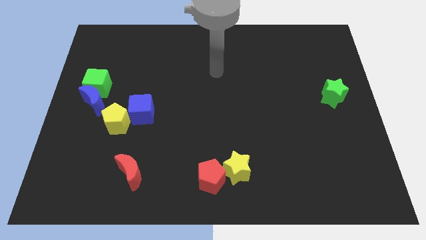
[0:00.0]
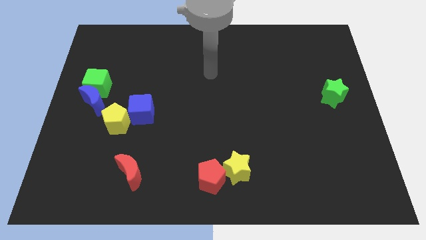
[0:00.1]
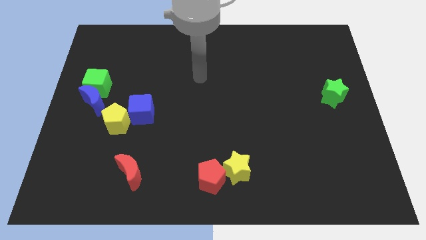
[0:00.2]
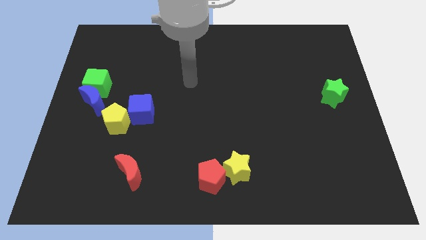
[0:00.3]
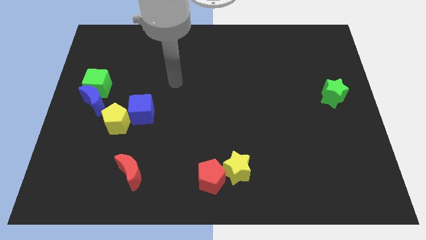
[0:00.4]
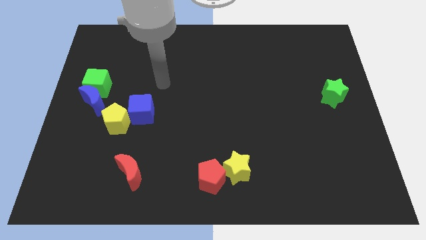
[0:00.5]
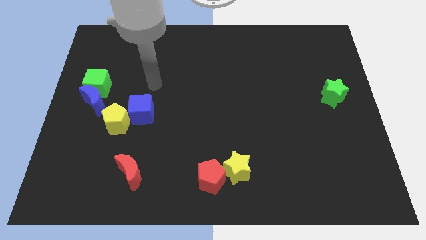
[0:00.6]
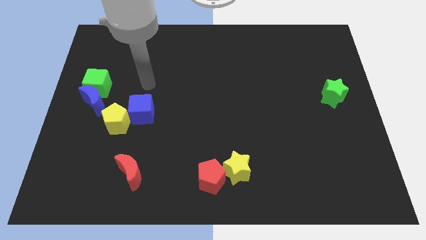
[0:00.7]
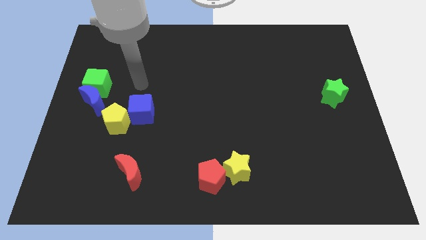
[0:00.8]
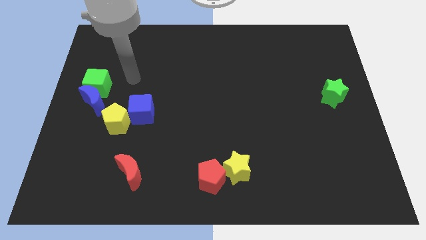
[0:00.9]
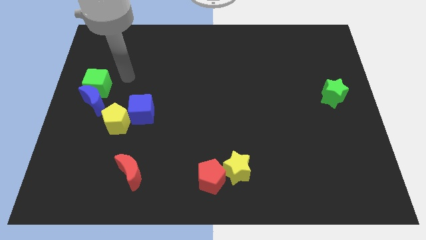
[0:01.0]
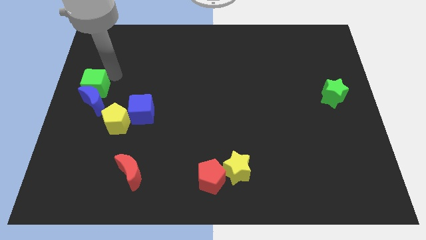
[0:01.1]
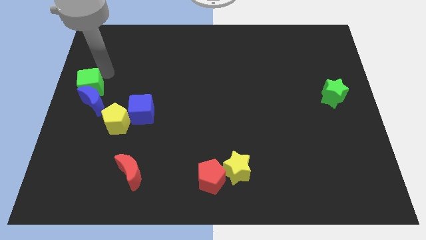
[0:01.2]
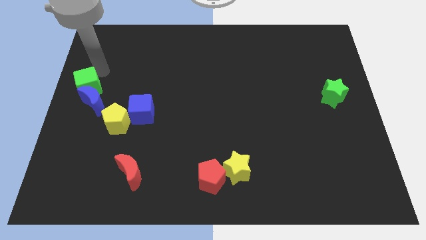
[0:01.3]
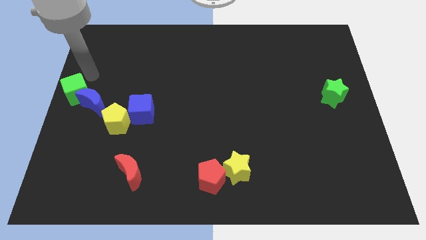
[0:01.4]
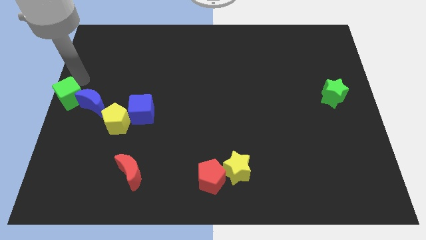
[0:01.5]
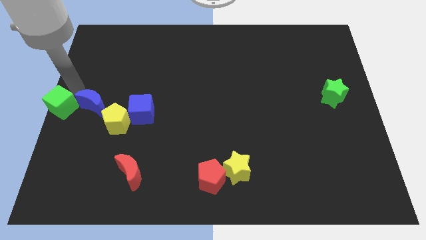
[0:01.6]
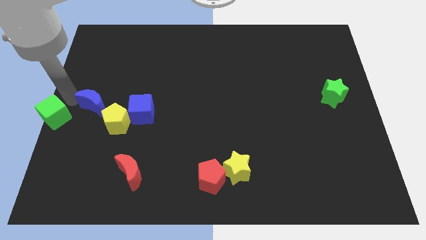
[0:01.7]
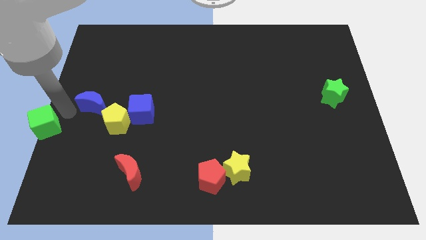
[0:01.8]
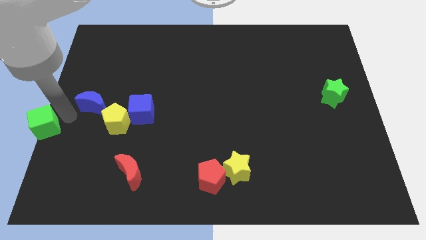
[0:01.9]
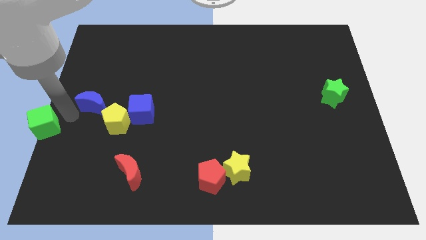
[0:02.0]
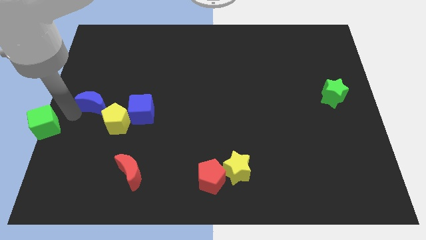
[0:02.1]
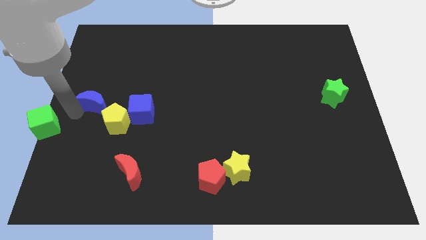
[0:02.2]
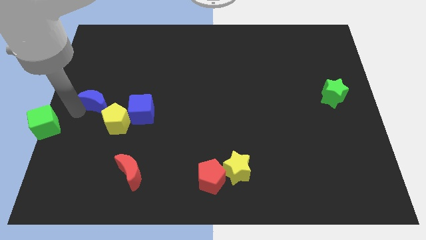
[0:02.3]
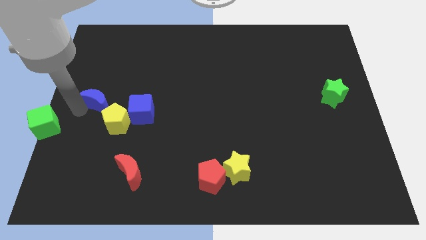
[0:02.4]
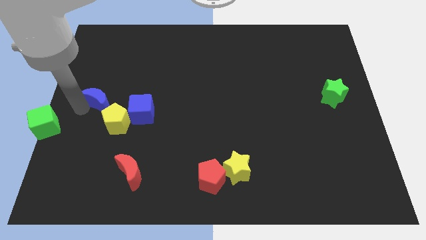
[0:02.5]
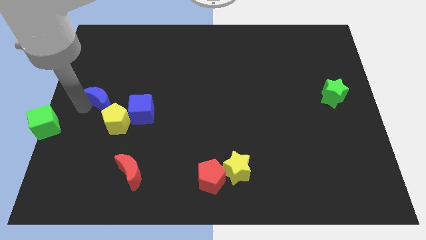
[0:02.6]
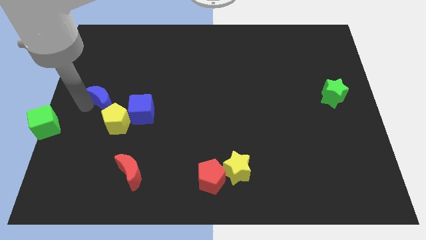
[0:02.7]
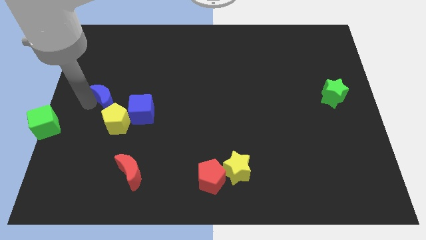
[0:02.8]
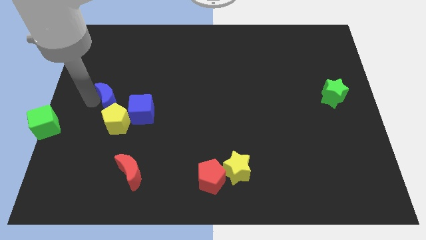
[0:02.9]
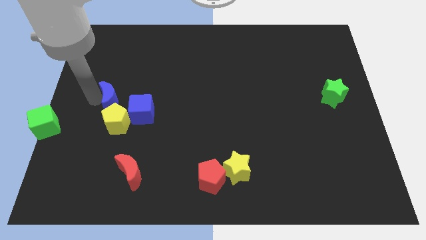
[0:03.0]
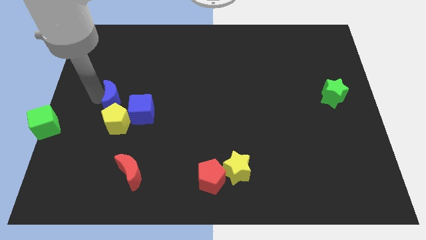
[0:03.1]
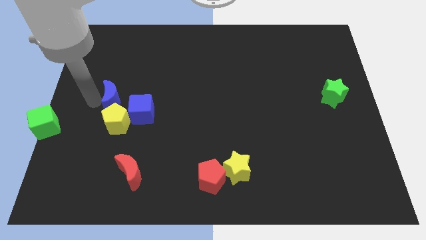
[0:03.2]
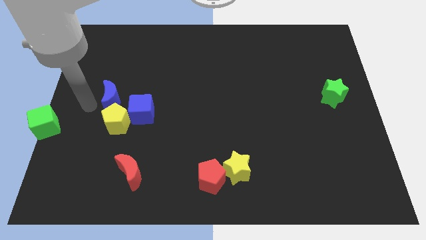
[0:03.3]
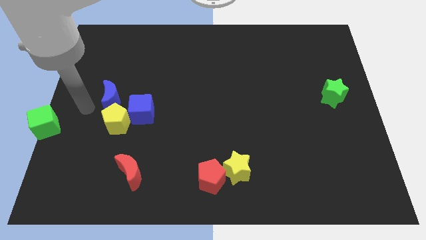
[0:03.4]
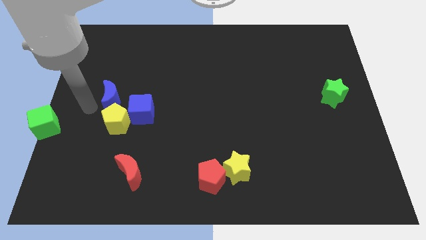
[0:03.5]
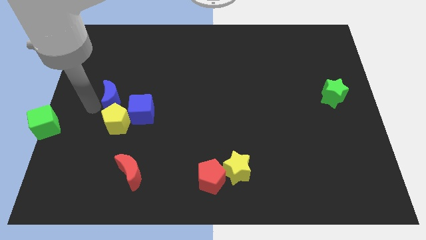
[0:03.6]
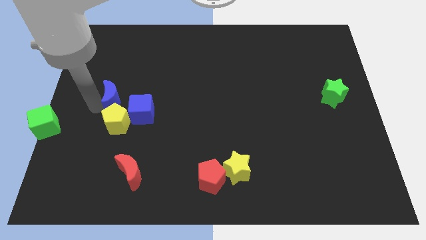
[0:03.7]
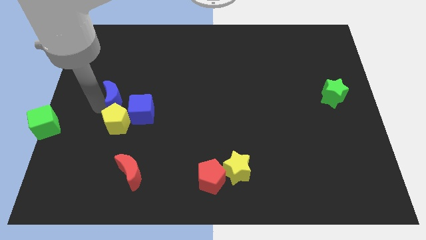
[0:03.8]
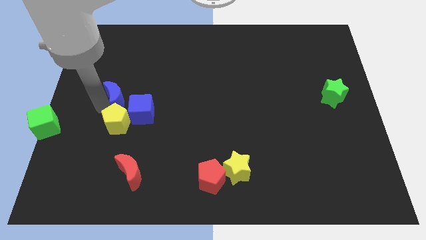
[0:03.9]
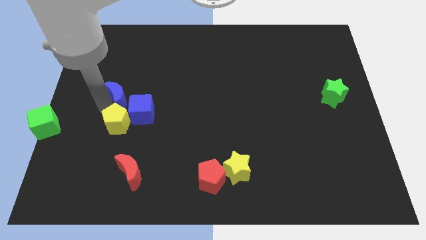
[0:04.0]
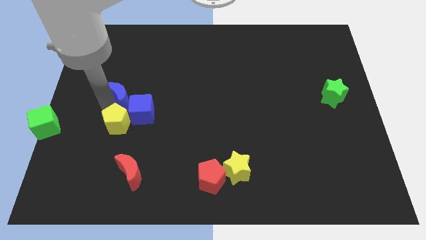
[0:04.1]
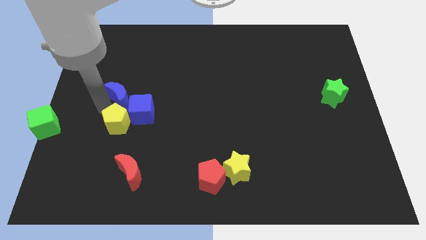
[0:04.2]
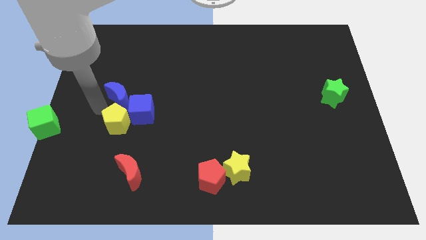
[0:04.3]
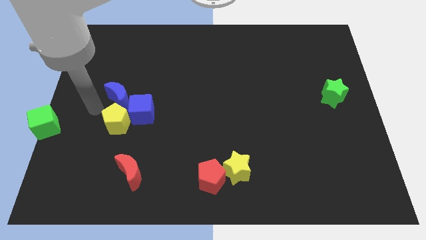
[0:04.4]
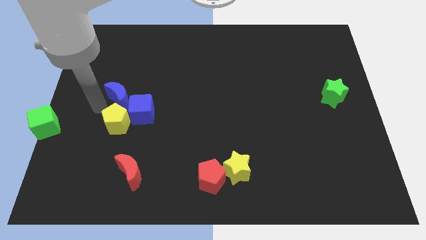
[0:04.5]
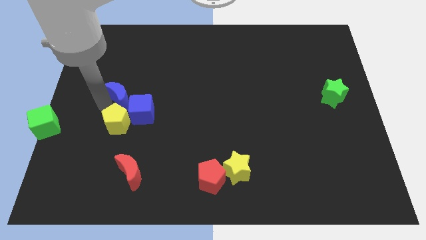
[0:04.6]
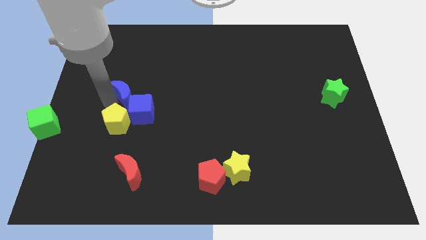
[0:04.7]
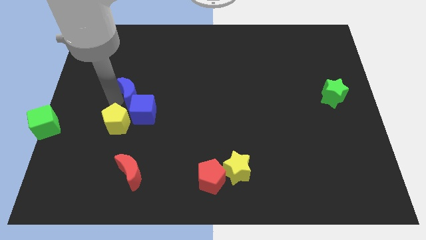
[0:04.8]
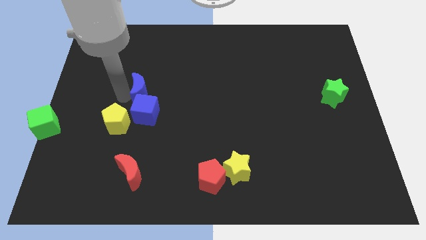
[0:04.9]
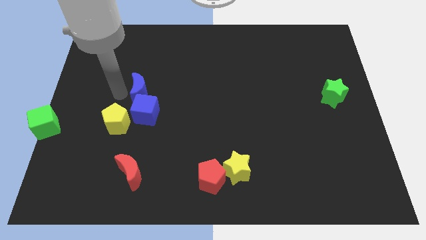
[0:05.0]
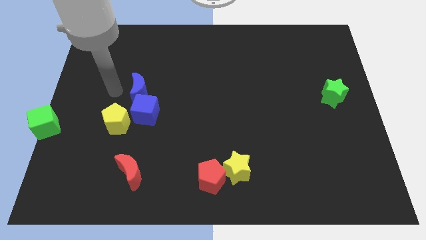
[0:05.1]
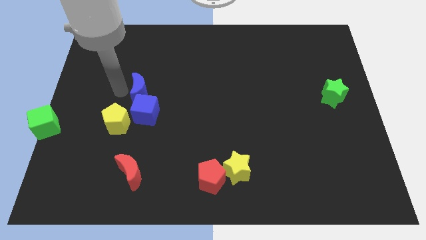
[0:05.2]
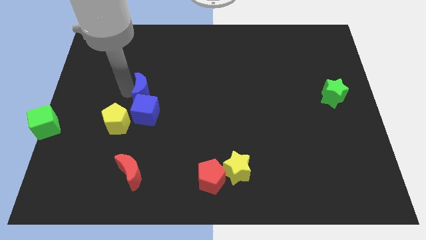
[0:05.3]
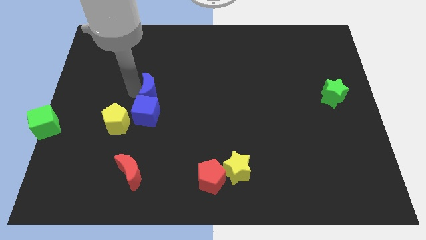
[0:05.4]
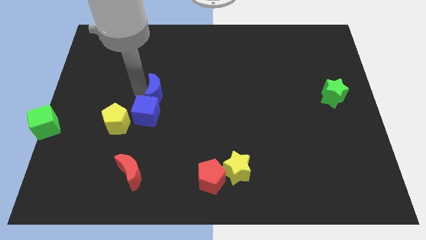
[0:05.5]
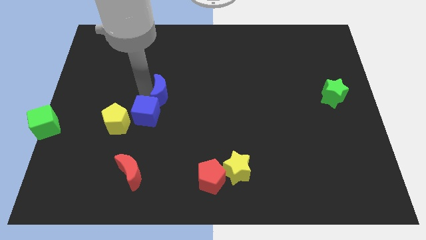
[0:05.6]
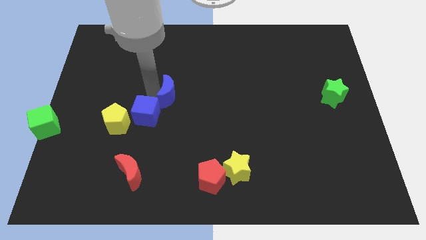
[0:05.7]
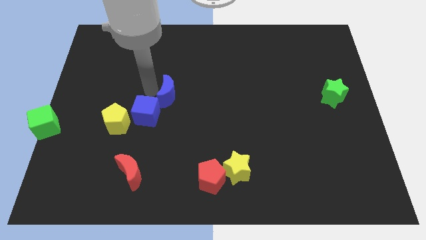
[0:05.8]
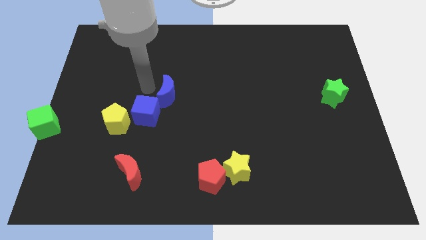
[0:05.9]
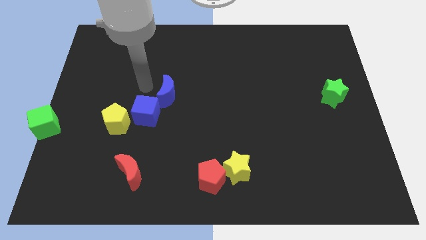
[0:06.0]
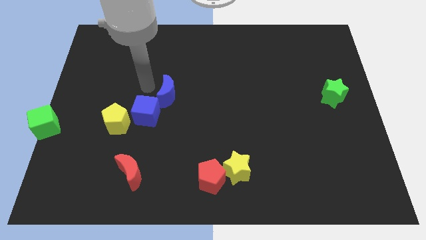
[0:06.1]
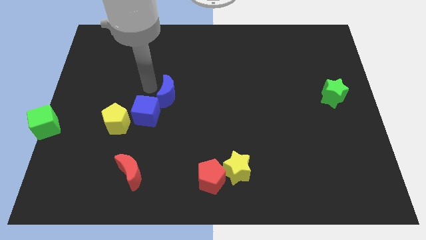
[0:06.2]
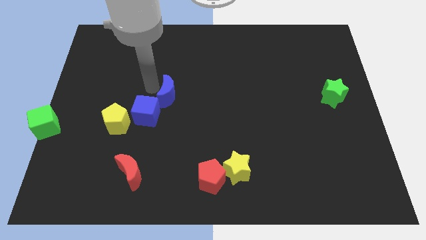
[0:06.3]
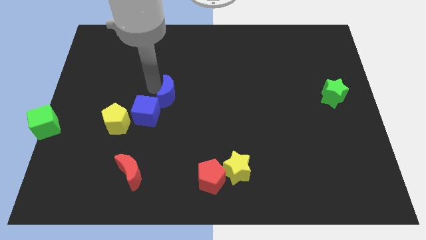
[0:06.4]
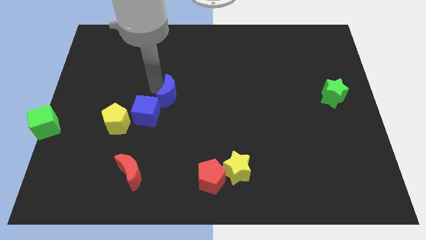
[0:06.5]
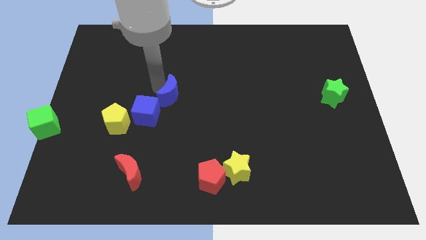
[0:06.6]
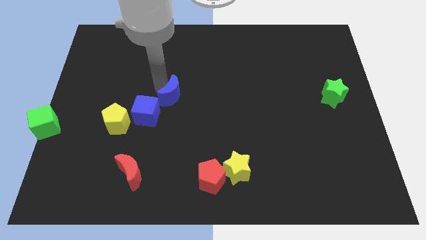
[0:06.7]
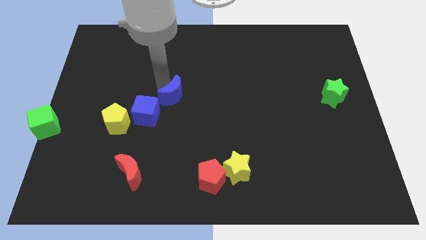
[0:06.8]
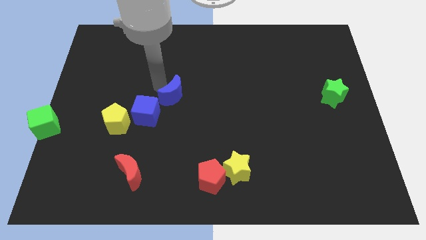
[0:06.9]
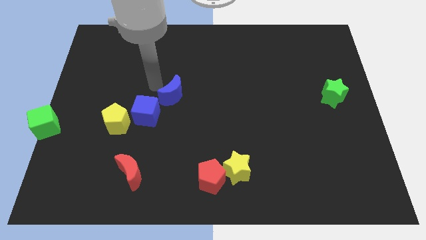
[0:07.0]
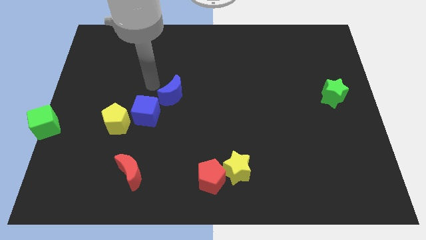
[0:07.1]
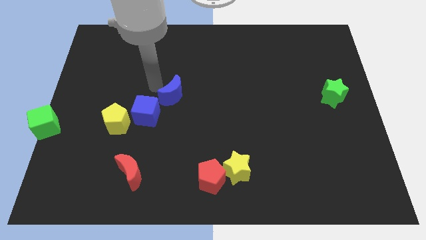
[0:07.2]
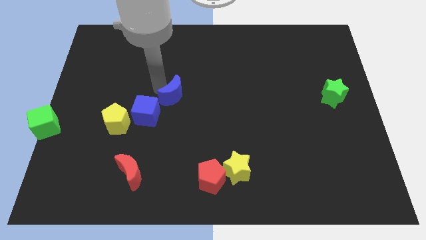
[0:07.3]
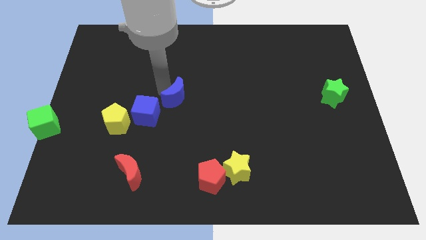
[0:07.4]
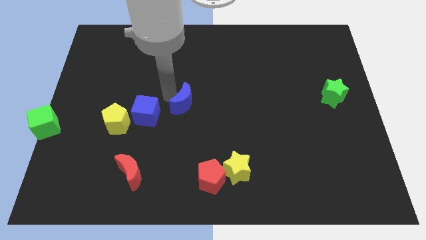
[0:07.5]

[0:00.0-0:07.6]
move the blue moon right
